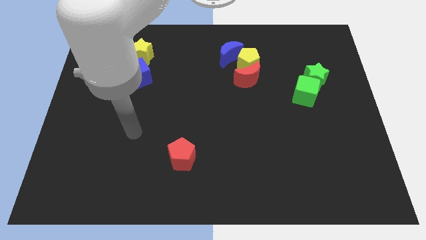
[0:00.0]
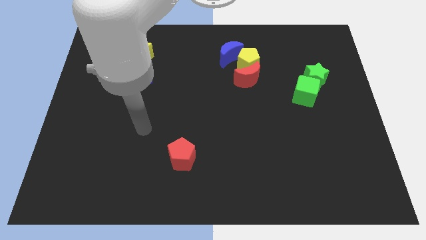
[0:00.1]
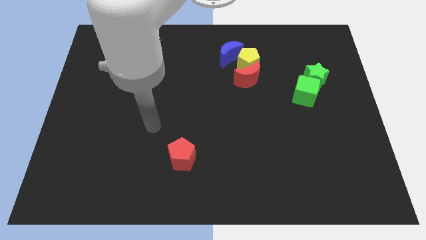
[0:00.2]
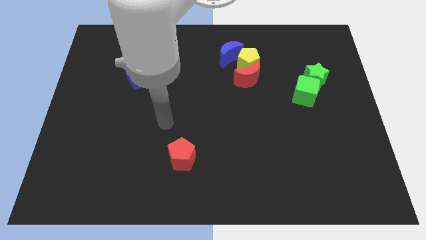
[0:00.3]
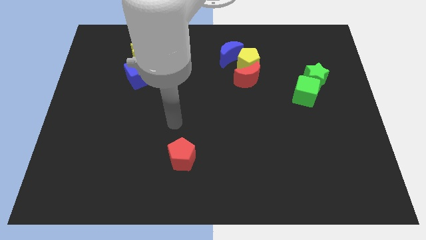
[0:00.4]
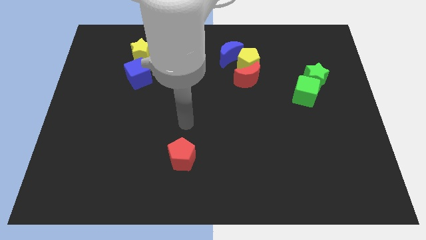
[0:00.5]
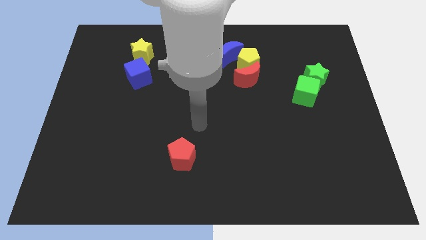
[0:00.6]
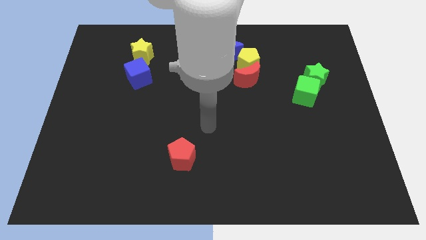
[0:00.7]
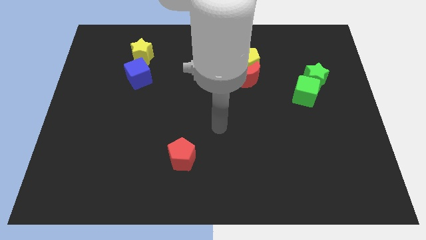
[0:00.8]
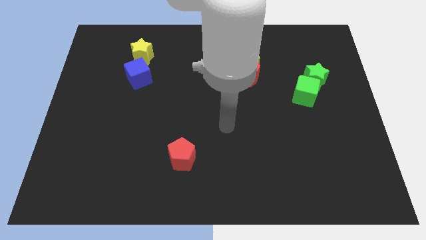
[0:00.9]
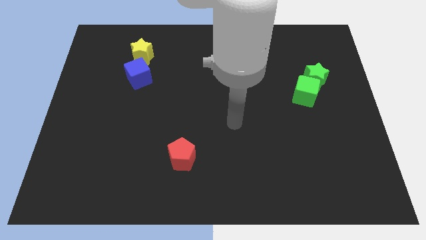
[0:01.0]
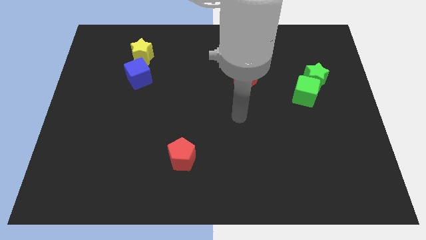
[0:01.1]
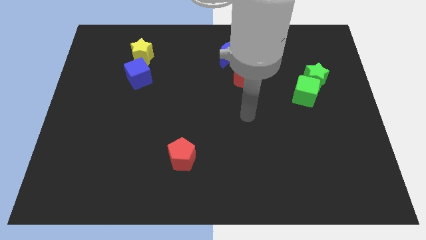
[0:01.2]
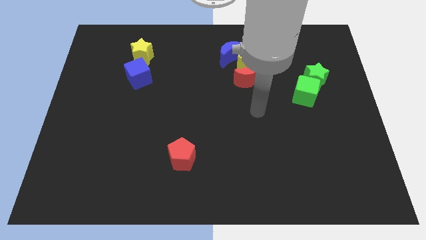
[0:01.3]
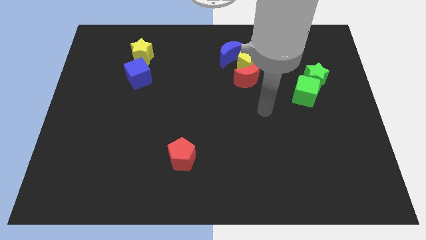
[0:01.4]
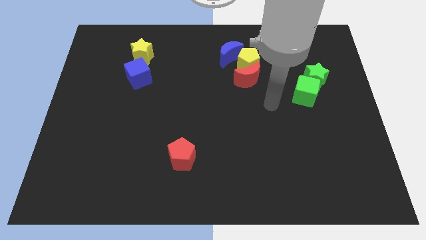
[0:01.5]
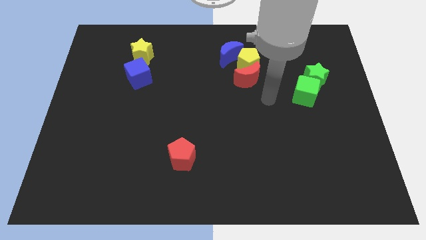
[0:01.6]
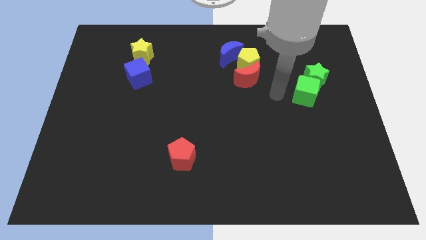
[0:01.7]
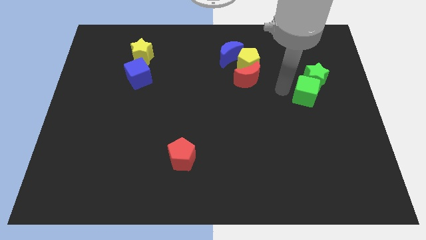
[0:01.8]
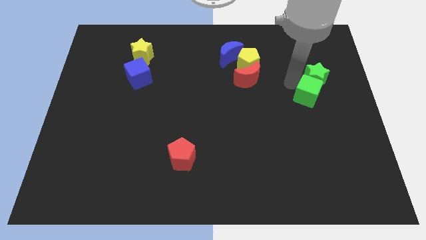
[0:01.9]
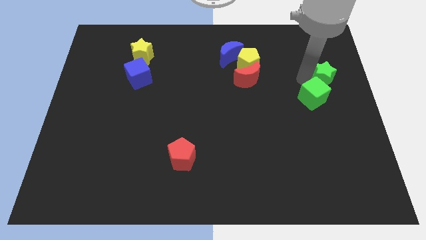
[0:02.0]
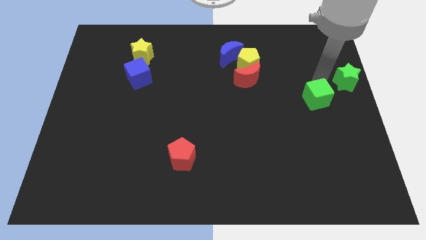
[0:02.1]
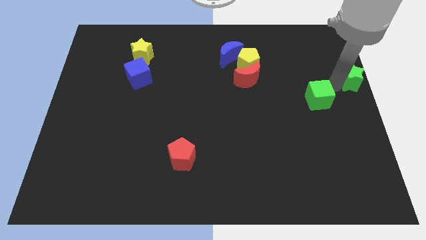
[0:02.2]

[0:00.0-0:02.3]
pull the green cube apart from the green star

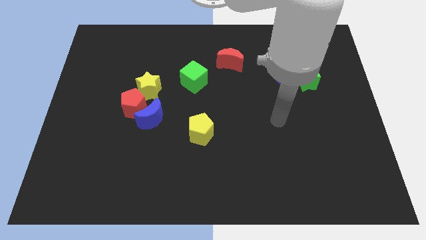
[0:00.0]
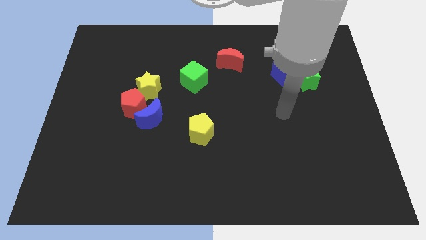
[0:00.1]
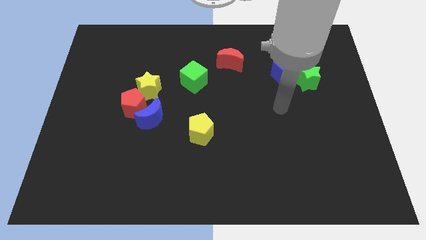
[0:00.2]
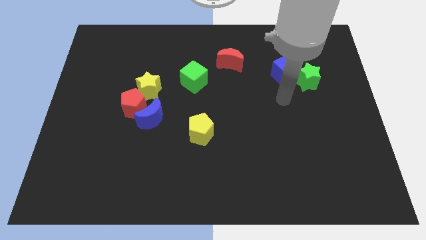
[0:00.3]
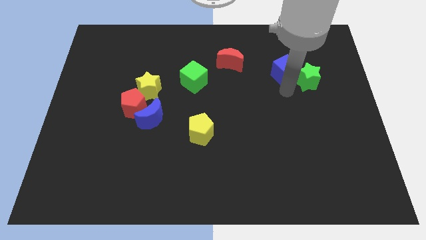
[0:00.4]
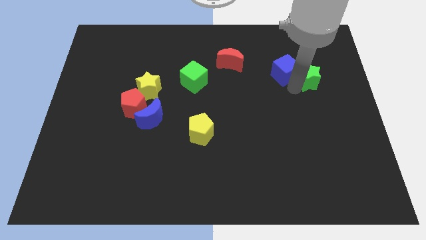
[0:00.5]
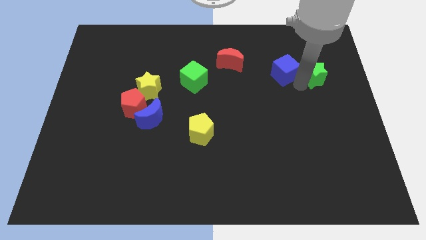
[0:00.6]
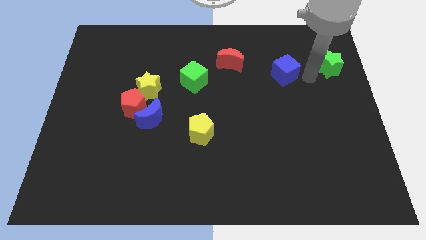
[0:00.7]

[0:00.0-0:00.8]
separate the blue cube from the green star

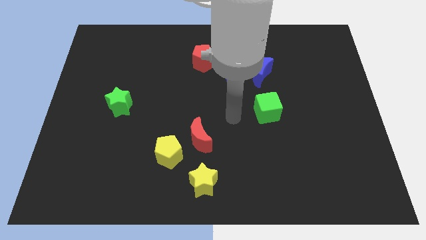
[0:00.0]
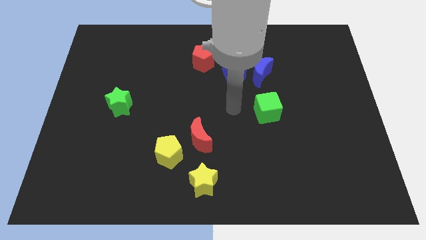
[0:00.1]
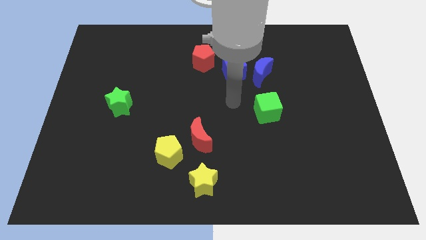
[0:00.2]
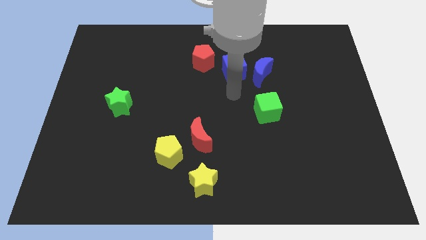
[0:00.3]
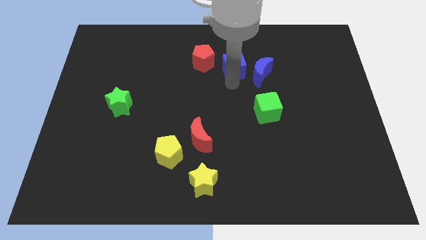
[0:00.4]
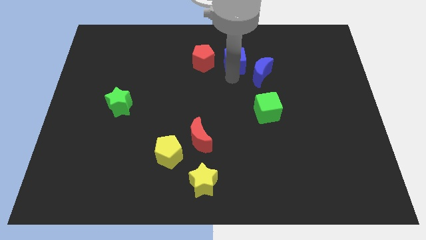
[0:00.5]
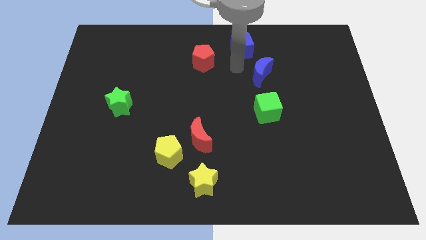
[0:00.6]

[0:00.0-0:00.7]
move the blue moon away from the blue cube

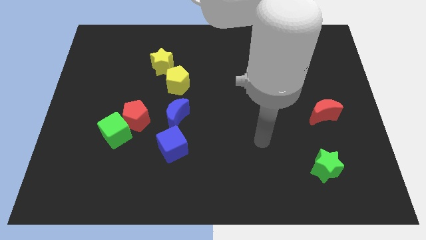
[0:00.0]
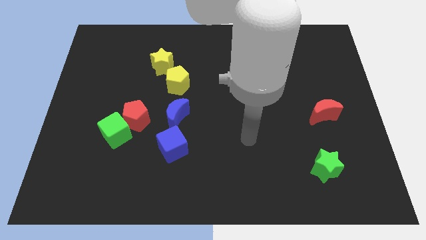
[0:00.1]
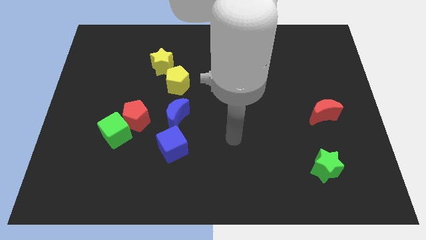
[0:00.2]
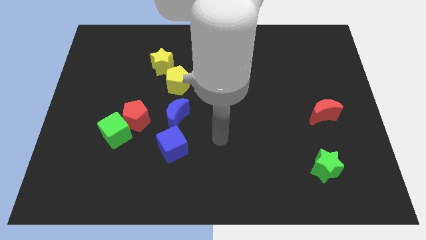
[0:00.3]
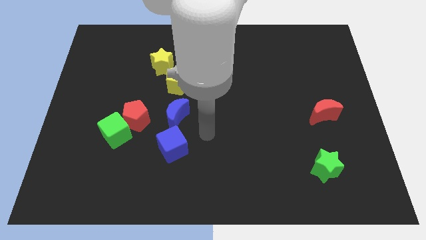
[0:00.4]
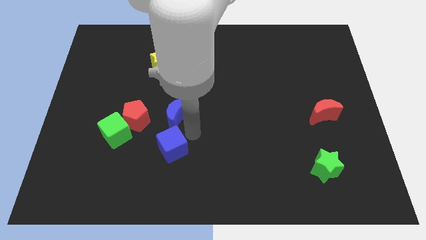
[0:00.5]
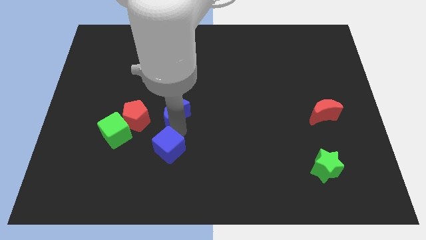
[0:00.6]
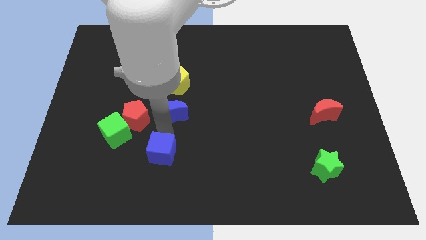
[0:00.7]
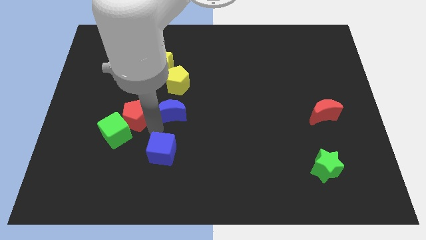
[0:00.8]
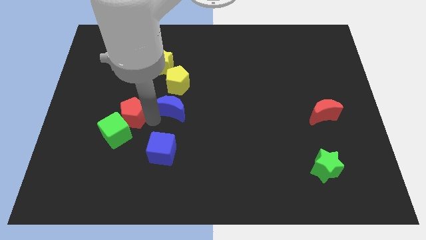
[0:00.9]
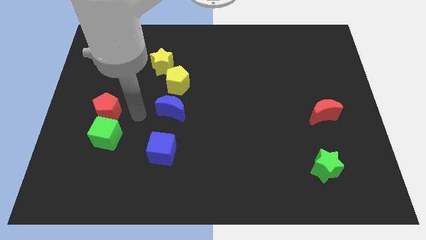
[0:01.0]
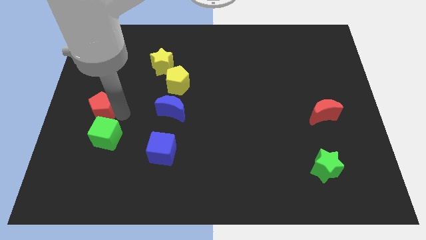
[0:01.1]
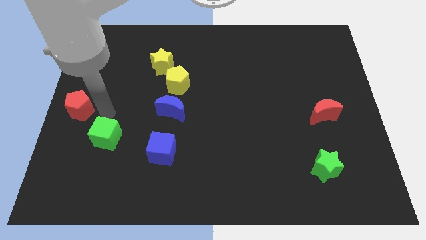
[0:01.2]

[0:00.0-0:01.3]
pull the green cube apart from the red pentagon

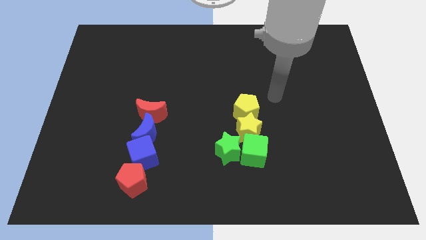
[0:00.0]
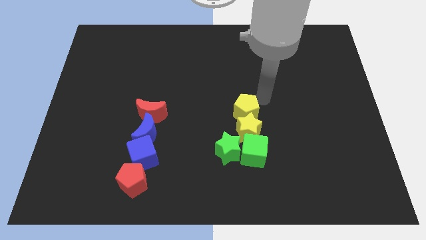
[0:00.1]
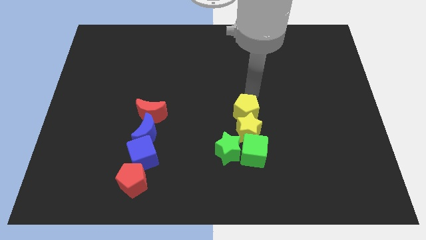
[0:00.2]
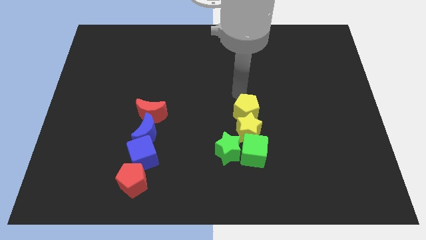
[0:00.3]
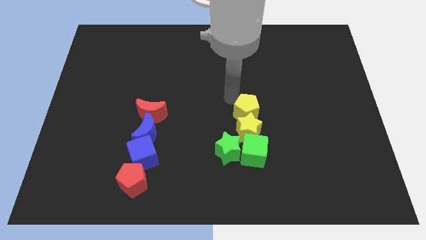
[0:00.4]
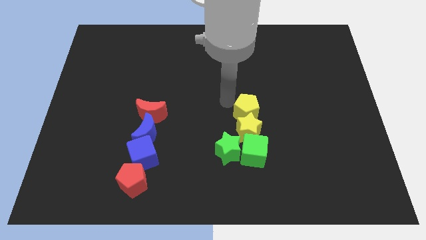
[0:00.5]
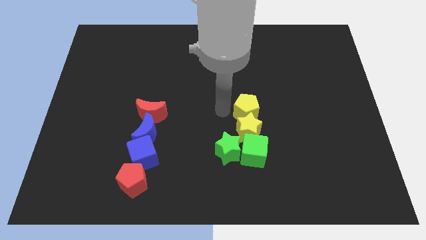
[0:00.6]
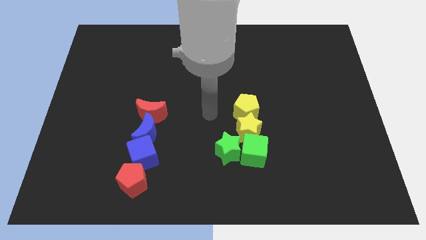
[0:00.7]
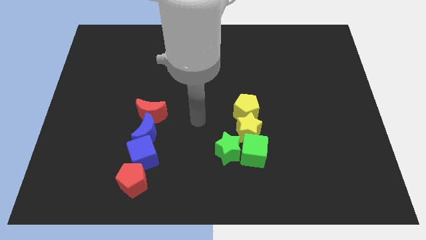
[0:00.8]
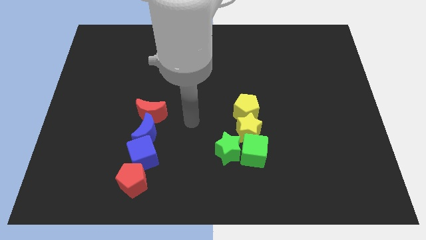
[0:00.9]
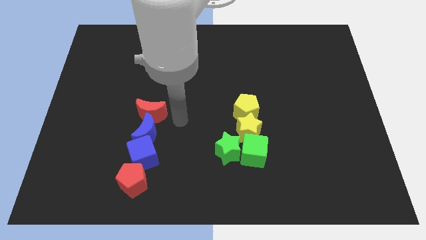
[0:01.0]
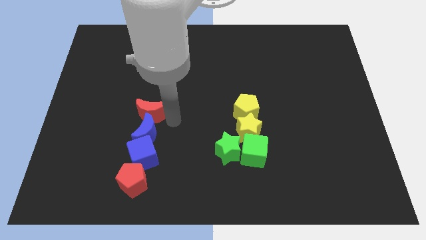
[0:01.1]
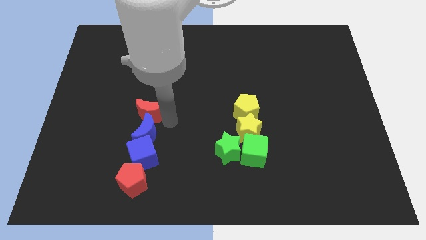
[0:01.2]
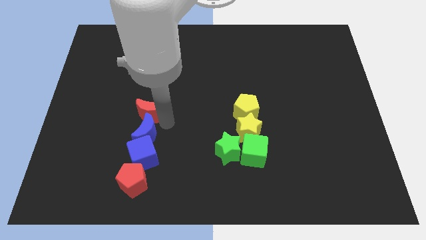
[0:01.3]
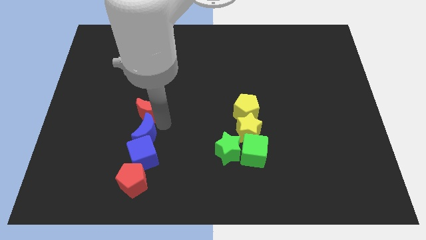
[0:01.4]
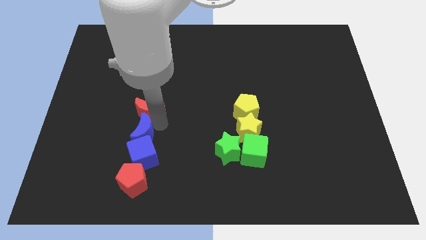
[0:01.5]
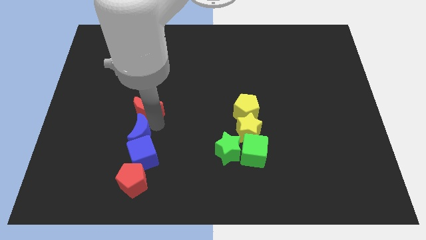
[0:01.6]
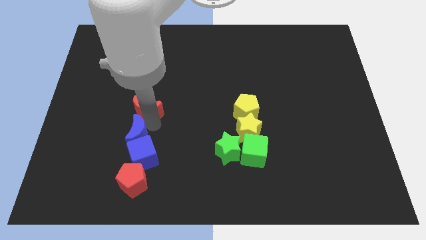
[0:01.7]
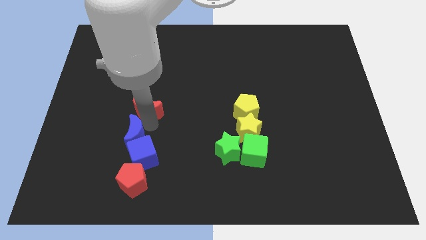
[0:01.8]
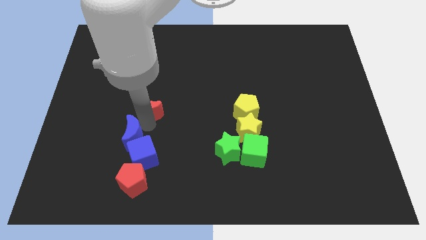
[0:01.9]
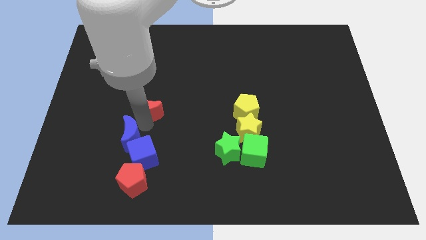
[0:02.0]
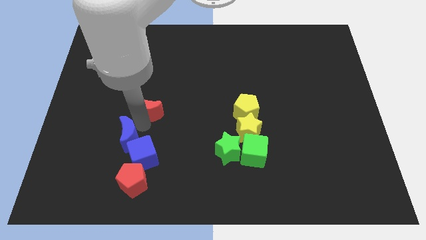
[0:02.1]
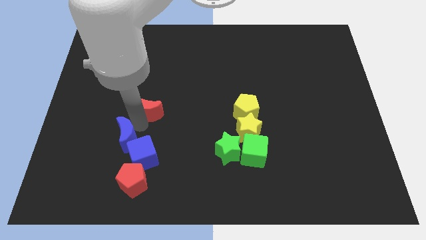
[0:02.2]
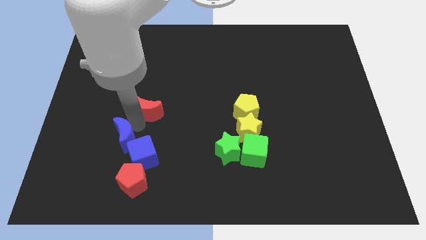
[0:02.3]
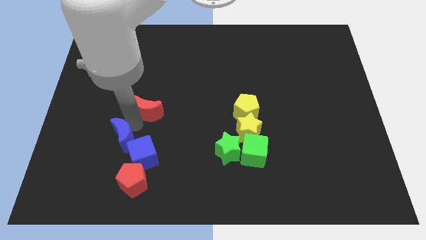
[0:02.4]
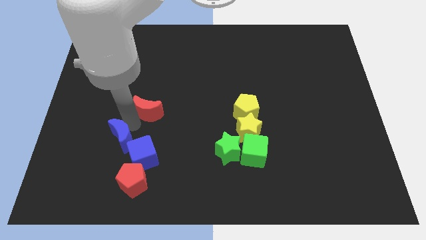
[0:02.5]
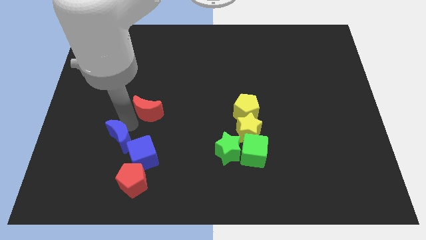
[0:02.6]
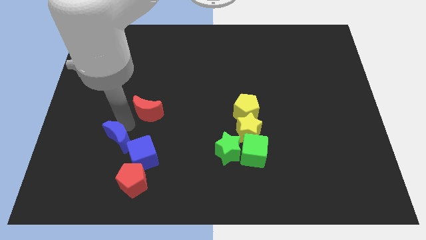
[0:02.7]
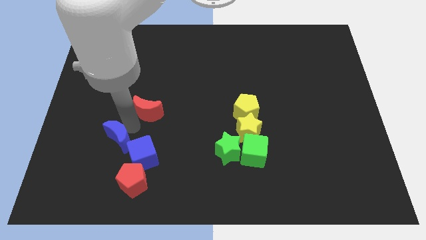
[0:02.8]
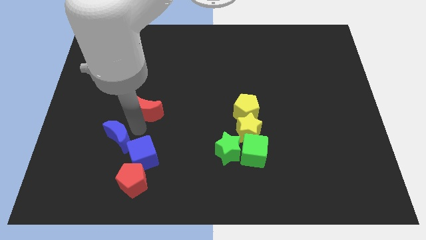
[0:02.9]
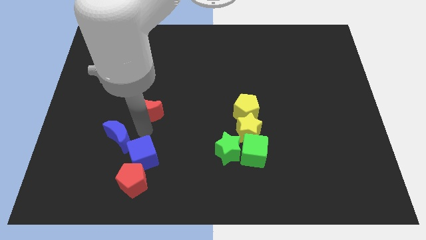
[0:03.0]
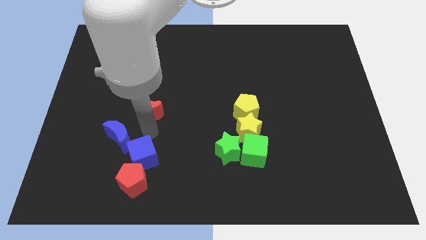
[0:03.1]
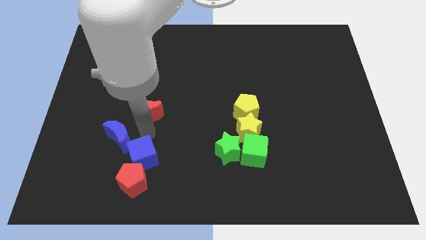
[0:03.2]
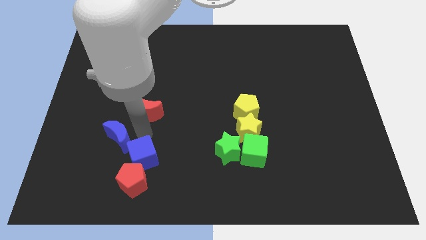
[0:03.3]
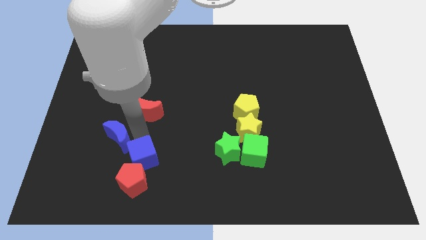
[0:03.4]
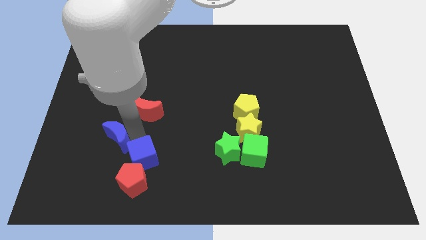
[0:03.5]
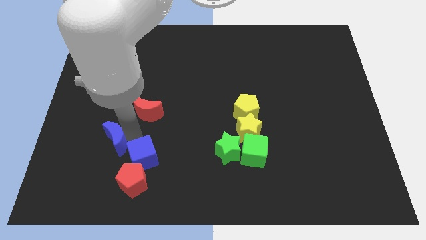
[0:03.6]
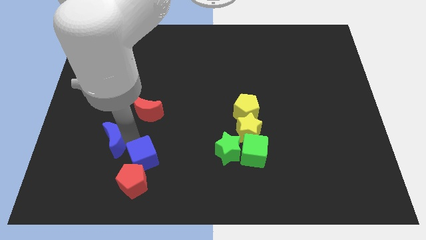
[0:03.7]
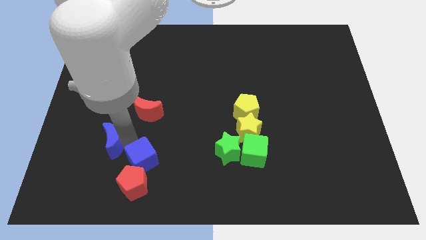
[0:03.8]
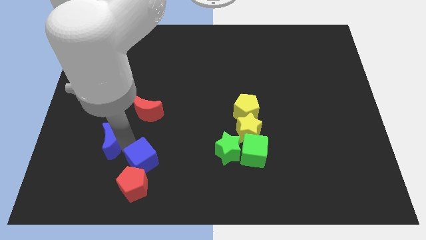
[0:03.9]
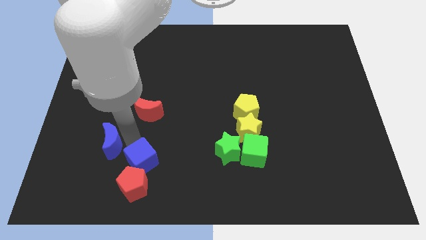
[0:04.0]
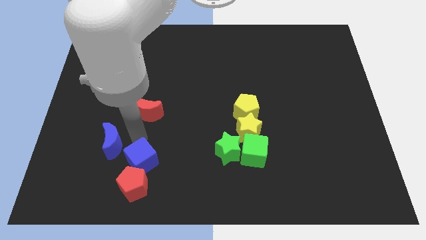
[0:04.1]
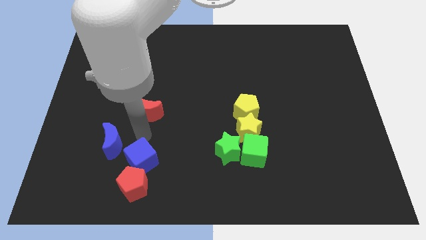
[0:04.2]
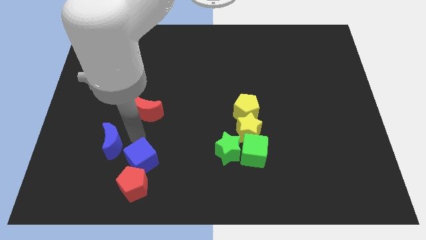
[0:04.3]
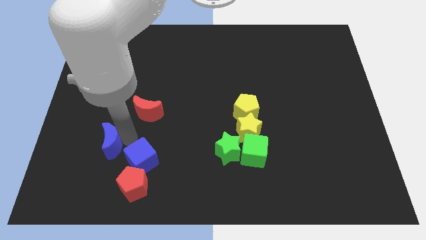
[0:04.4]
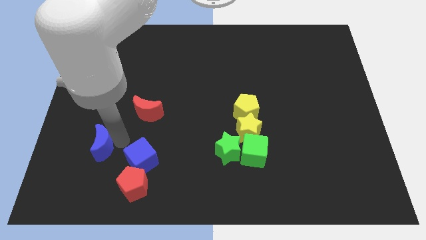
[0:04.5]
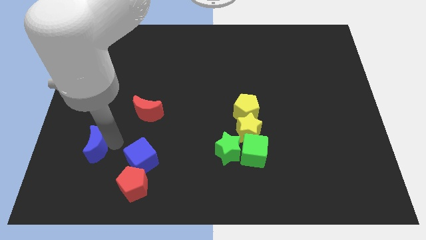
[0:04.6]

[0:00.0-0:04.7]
move the blue moon away from the blue cube and red moon
